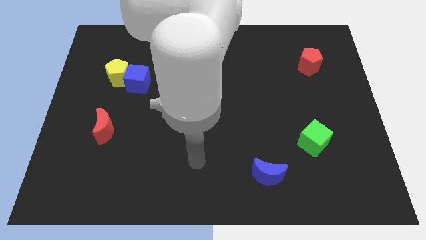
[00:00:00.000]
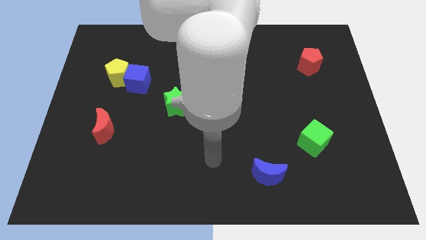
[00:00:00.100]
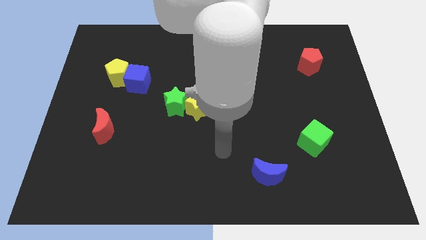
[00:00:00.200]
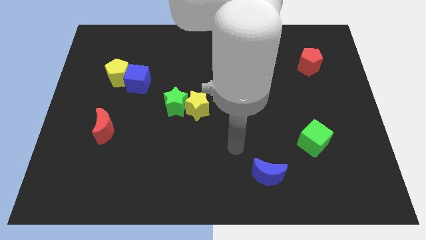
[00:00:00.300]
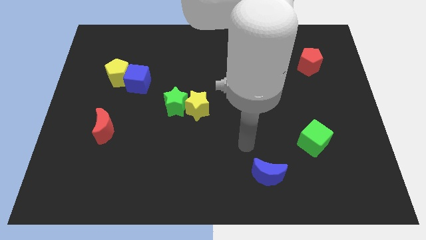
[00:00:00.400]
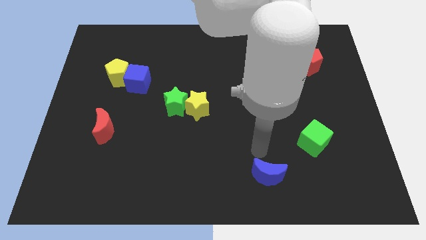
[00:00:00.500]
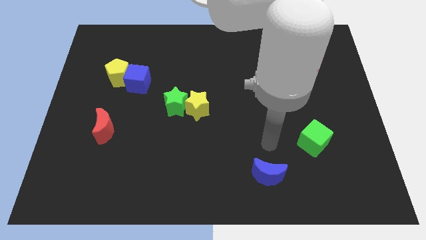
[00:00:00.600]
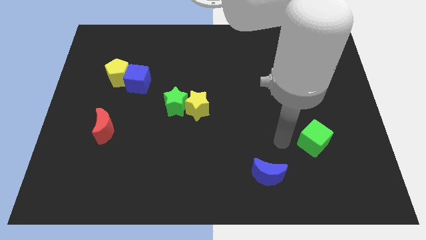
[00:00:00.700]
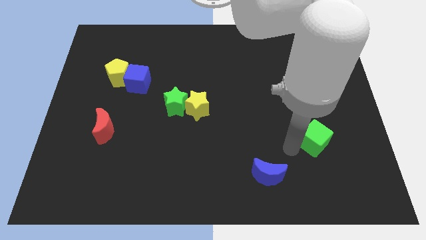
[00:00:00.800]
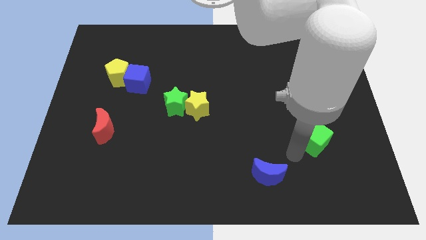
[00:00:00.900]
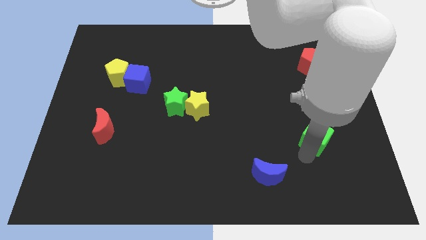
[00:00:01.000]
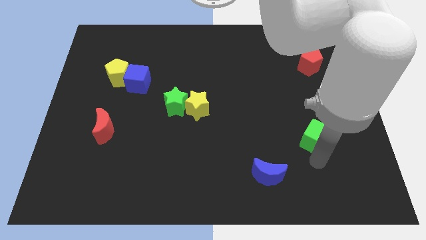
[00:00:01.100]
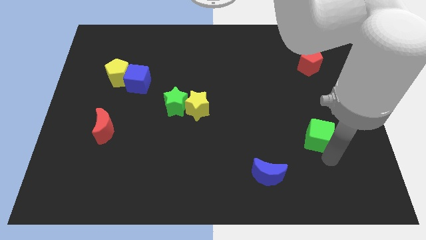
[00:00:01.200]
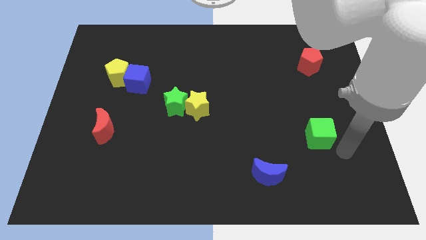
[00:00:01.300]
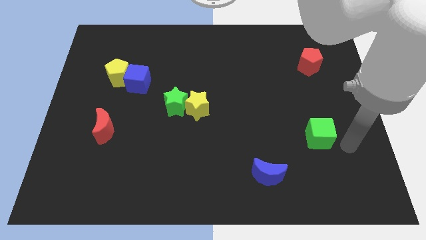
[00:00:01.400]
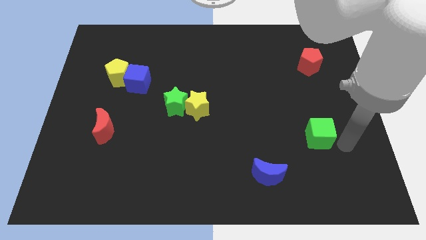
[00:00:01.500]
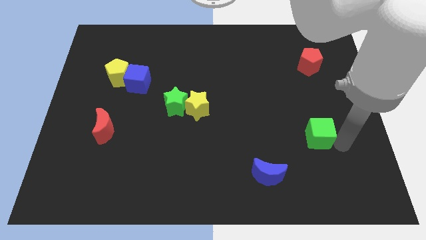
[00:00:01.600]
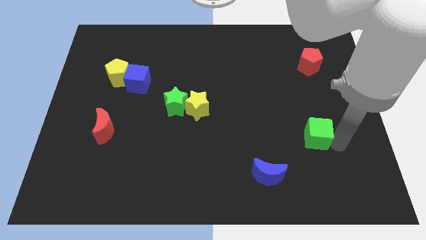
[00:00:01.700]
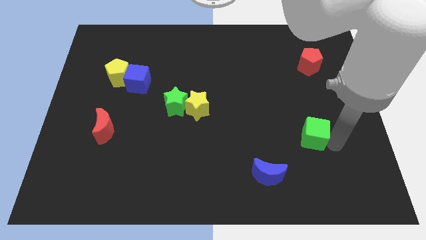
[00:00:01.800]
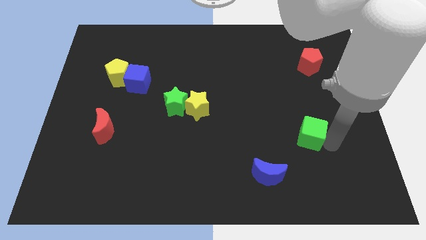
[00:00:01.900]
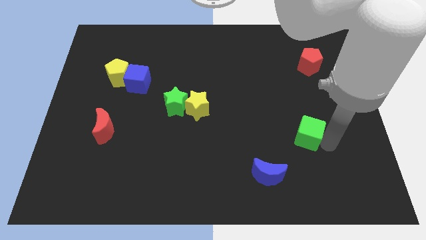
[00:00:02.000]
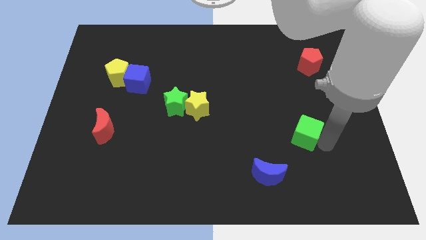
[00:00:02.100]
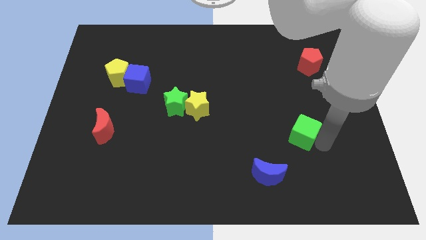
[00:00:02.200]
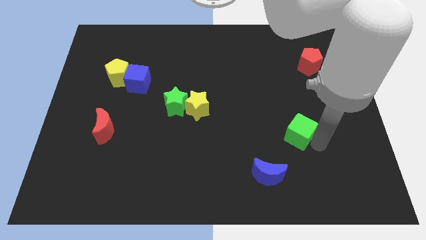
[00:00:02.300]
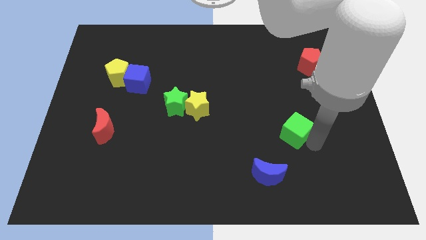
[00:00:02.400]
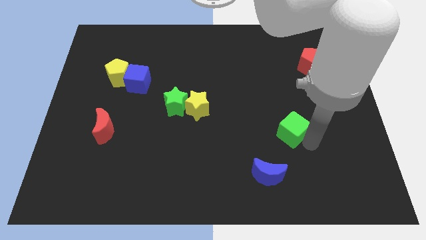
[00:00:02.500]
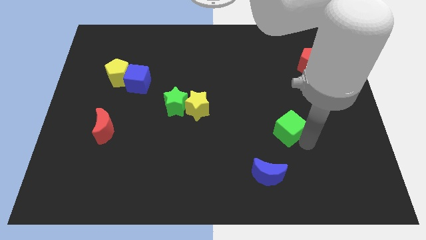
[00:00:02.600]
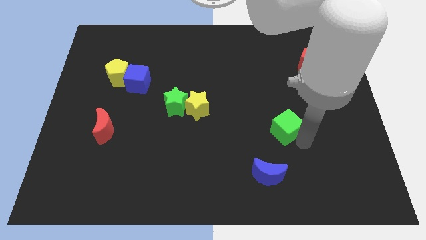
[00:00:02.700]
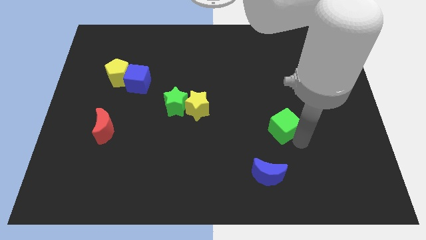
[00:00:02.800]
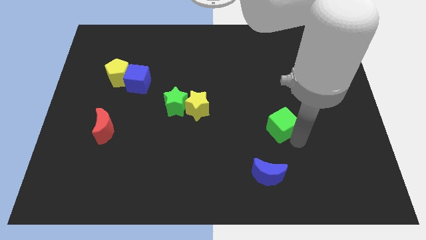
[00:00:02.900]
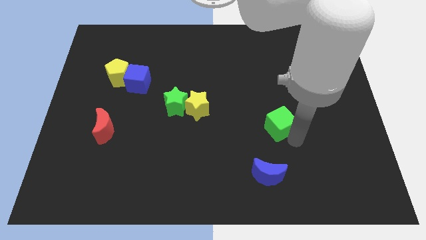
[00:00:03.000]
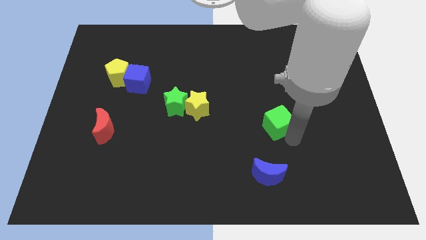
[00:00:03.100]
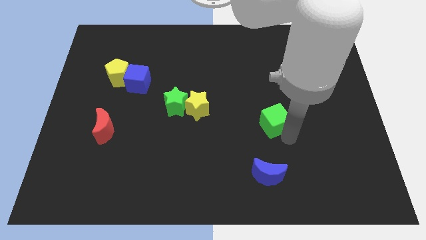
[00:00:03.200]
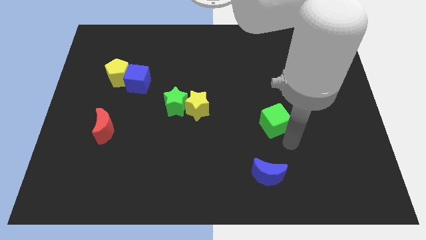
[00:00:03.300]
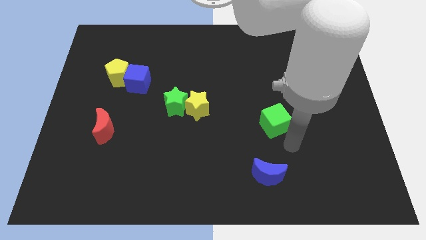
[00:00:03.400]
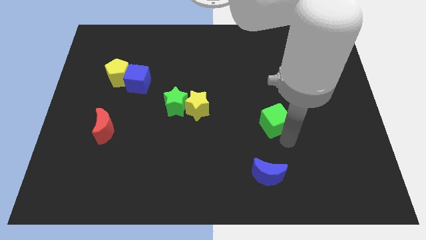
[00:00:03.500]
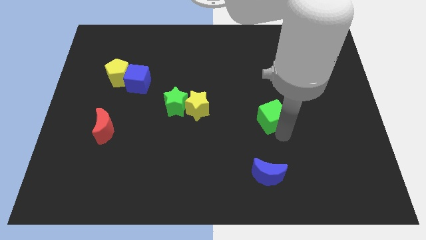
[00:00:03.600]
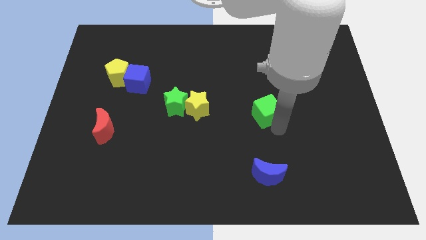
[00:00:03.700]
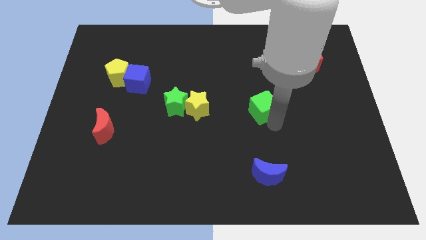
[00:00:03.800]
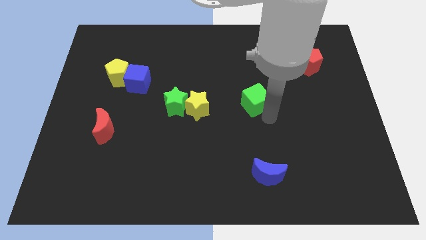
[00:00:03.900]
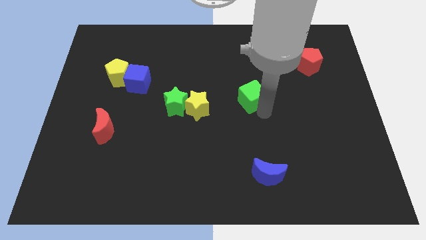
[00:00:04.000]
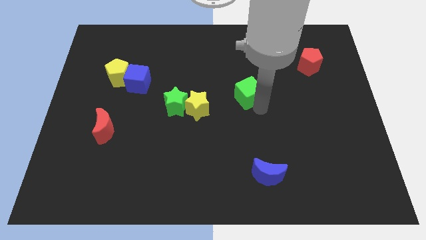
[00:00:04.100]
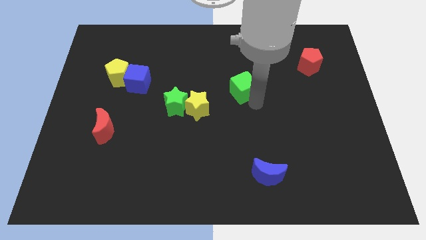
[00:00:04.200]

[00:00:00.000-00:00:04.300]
slide the green cube upwards and to the left

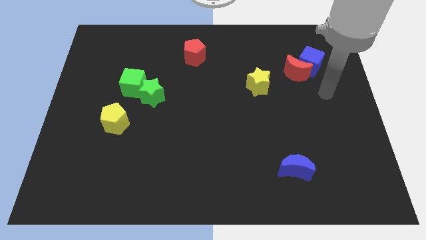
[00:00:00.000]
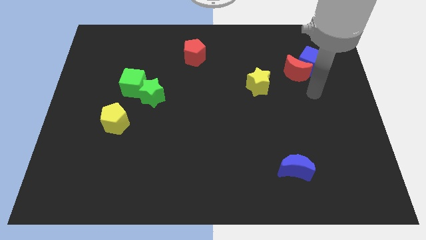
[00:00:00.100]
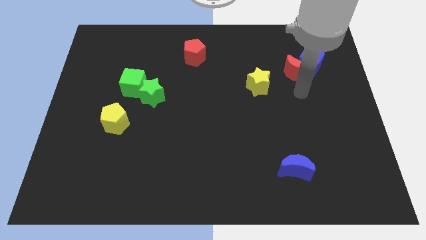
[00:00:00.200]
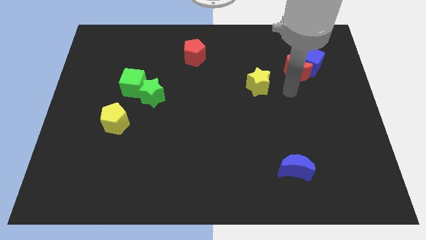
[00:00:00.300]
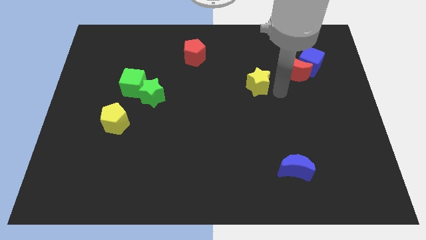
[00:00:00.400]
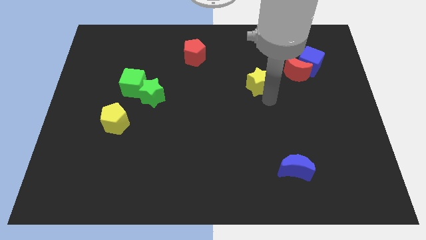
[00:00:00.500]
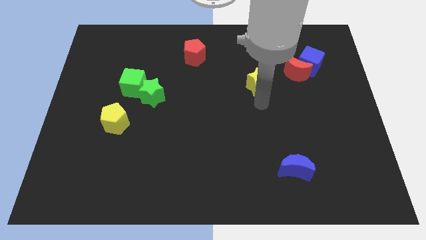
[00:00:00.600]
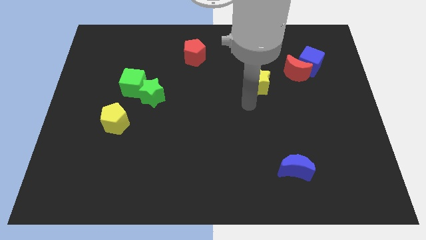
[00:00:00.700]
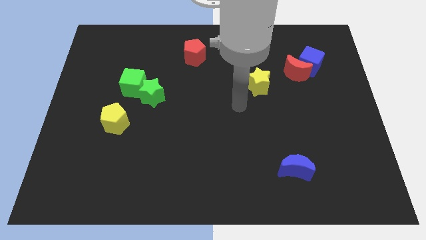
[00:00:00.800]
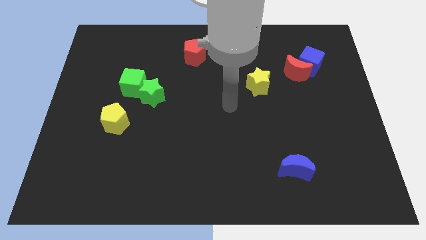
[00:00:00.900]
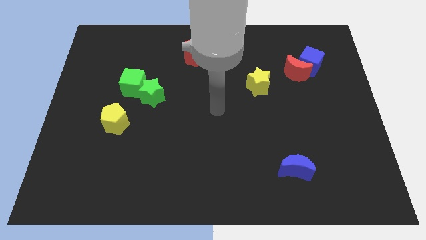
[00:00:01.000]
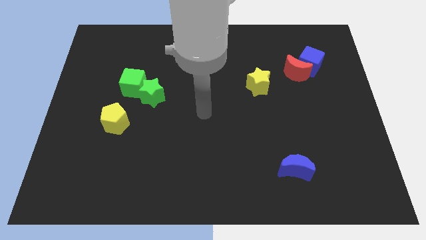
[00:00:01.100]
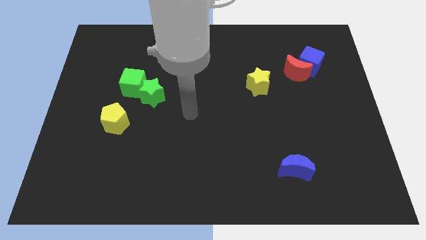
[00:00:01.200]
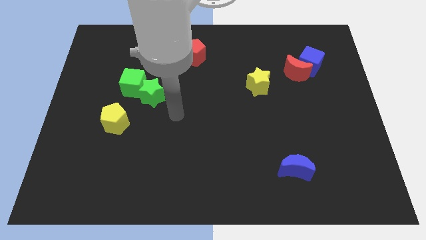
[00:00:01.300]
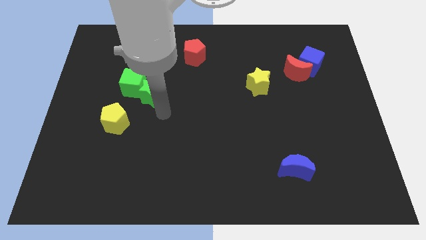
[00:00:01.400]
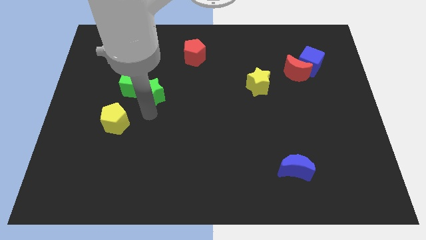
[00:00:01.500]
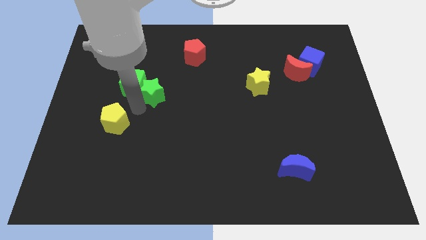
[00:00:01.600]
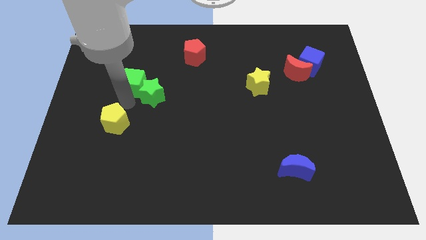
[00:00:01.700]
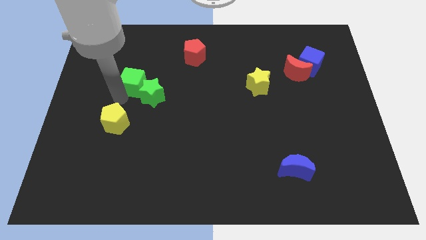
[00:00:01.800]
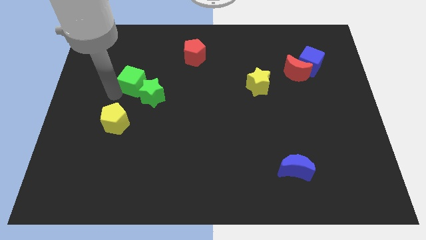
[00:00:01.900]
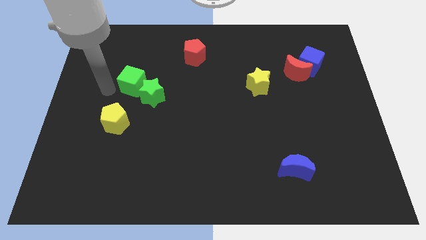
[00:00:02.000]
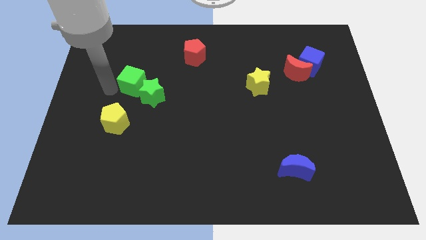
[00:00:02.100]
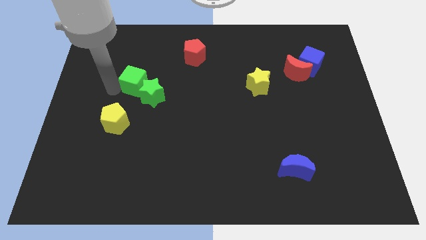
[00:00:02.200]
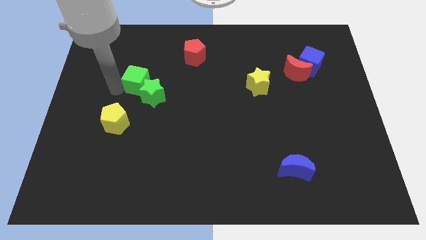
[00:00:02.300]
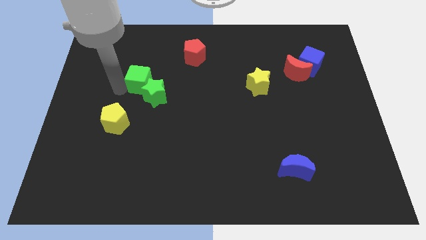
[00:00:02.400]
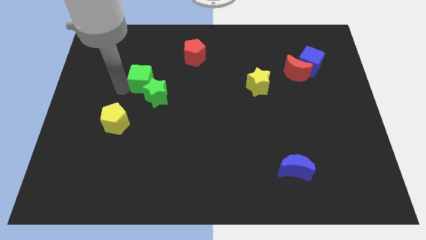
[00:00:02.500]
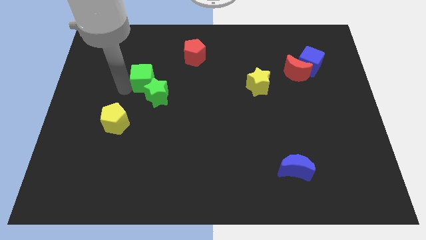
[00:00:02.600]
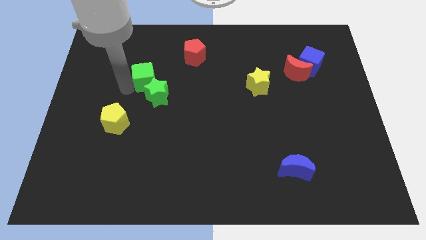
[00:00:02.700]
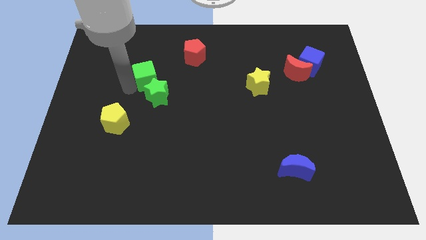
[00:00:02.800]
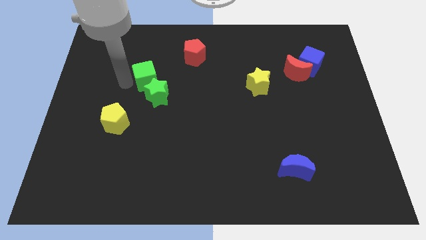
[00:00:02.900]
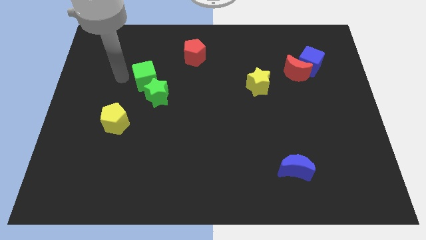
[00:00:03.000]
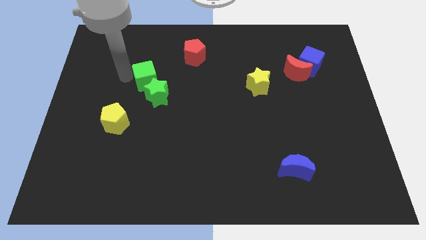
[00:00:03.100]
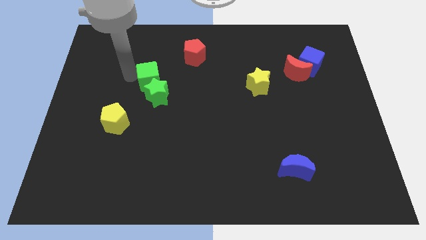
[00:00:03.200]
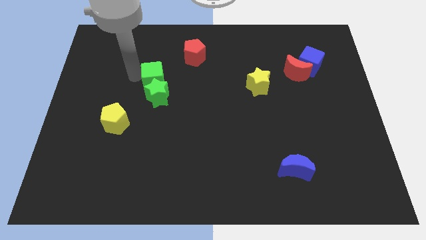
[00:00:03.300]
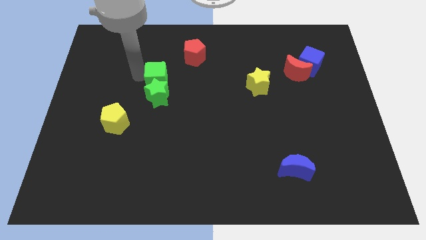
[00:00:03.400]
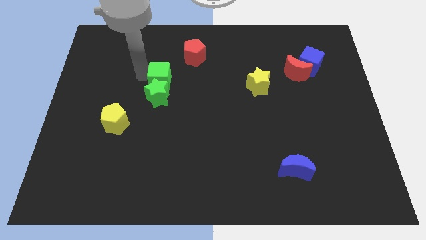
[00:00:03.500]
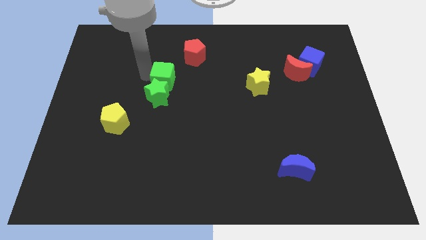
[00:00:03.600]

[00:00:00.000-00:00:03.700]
move the green cube somewhat to the right
